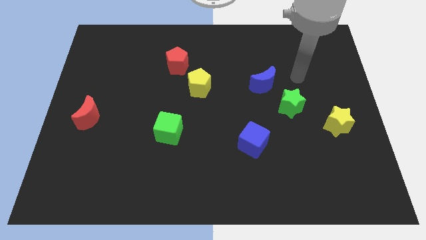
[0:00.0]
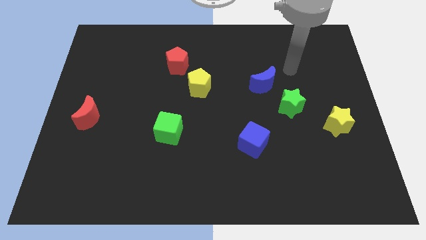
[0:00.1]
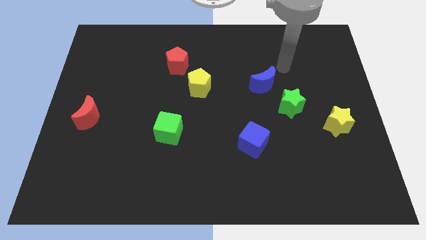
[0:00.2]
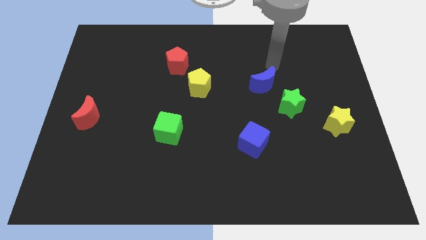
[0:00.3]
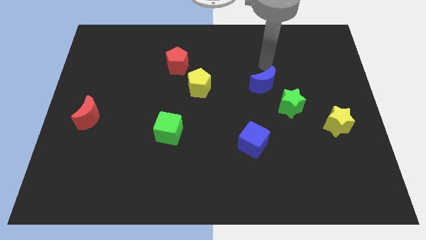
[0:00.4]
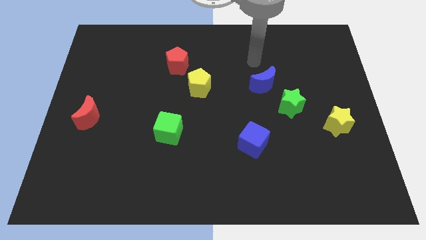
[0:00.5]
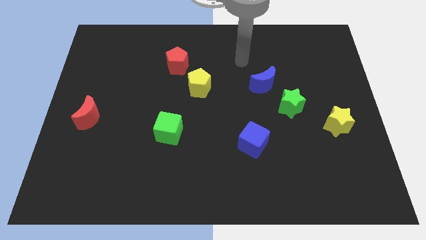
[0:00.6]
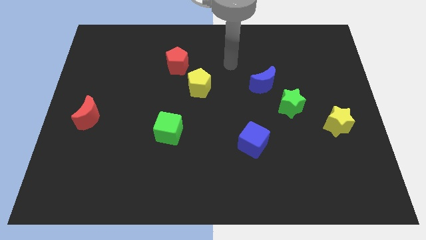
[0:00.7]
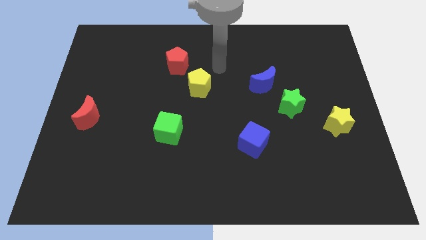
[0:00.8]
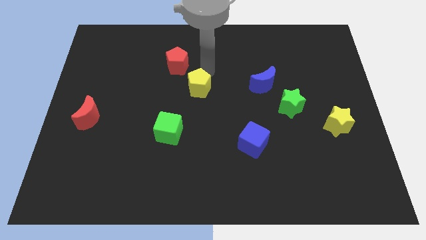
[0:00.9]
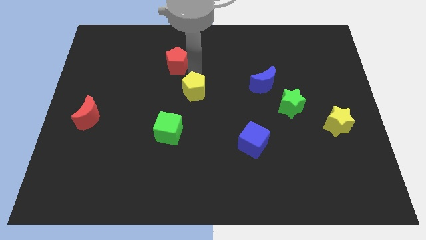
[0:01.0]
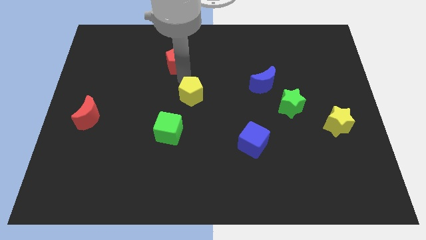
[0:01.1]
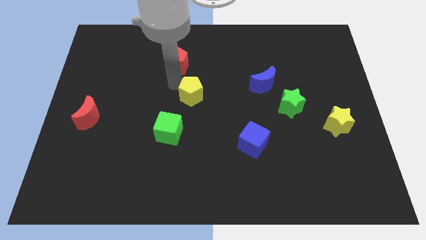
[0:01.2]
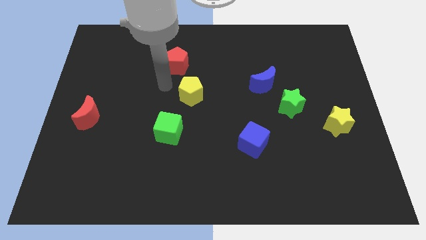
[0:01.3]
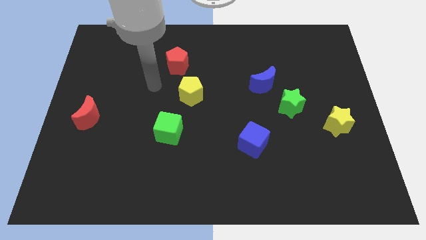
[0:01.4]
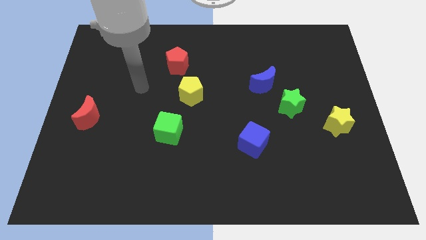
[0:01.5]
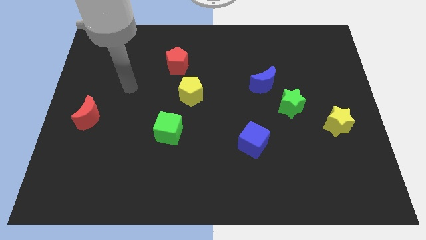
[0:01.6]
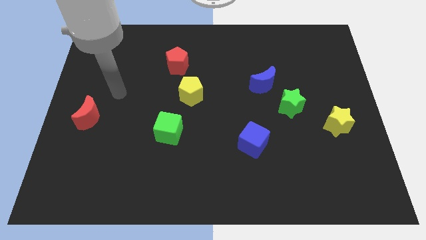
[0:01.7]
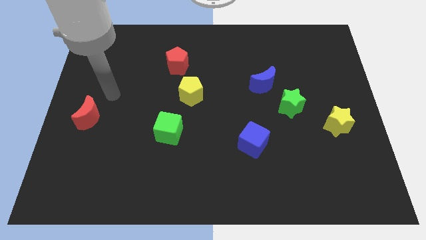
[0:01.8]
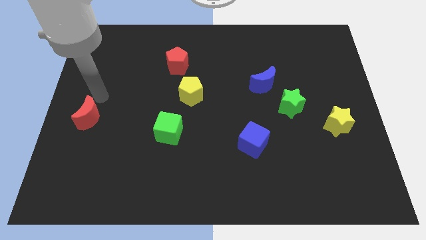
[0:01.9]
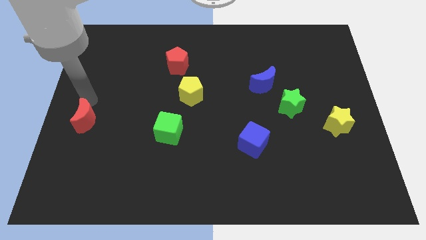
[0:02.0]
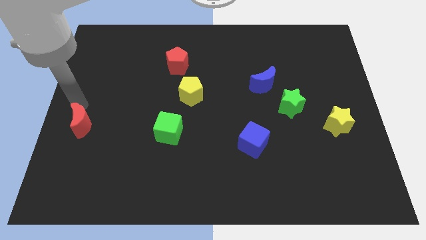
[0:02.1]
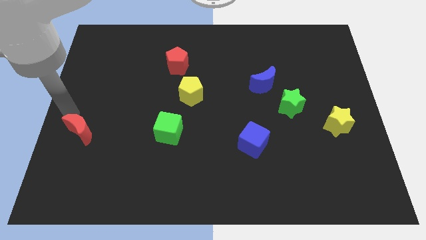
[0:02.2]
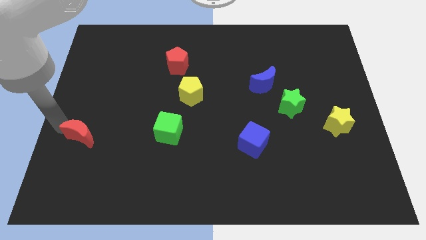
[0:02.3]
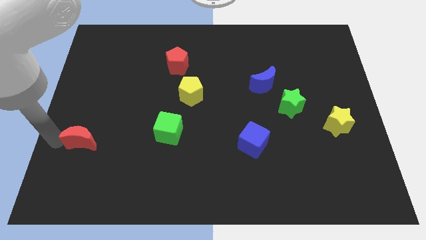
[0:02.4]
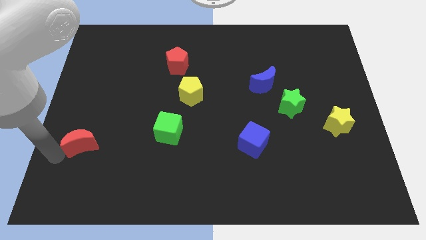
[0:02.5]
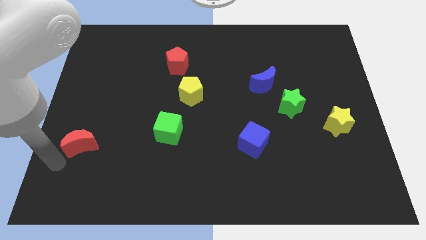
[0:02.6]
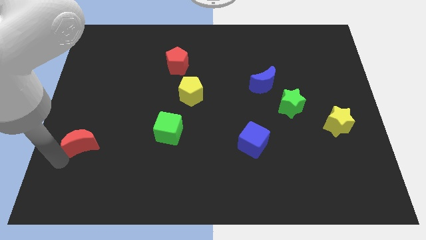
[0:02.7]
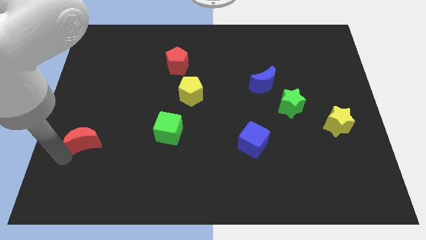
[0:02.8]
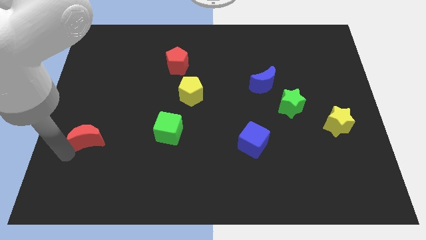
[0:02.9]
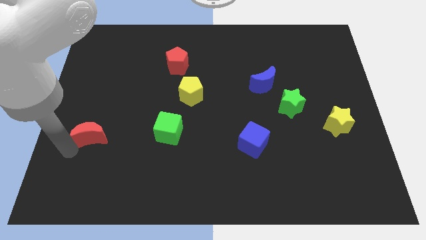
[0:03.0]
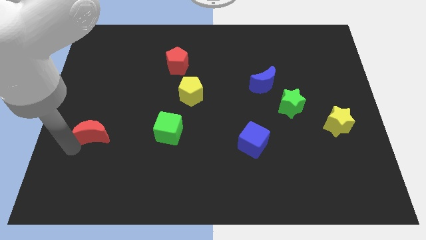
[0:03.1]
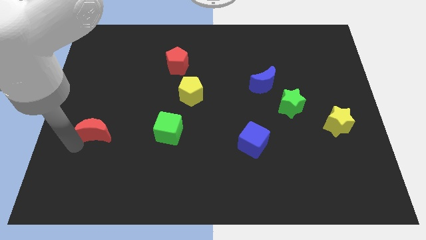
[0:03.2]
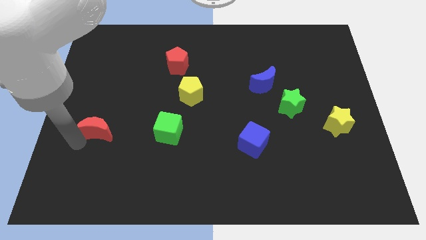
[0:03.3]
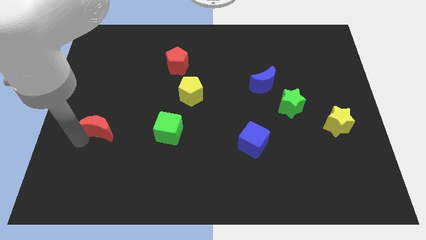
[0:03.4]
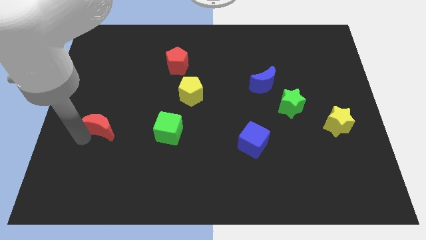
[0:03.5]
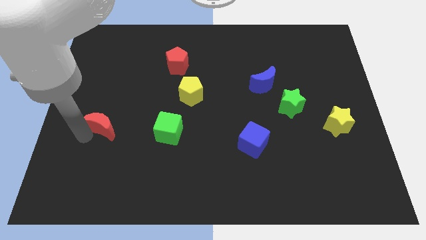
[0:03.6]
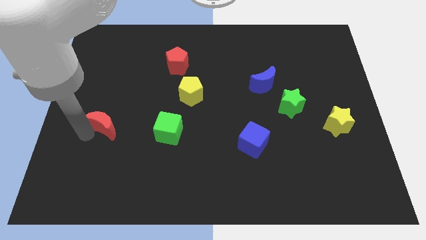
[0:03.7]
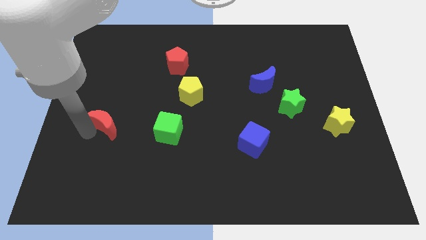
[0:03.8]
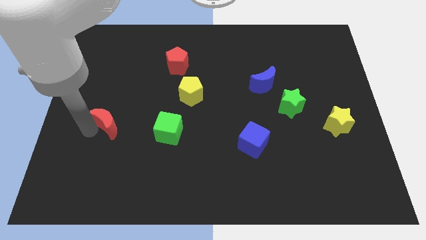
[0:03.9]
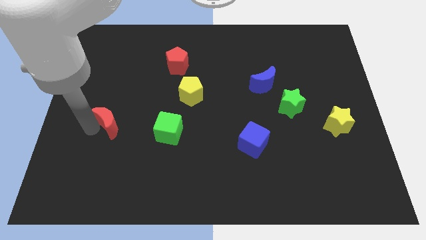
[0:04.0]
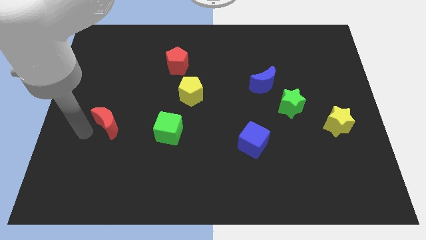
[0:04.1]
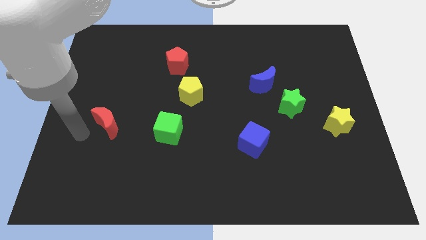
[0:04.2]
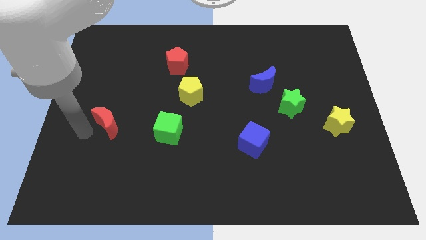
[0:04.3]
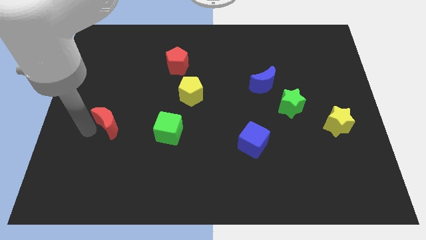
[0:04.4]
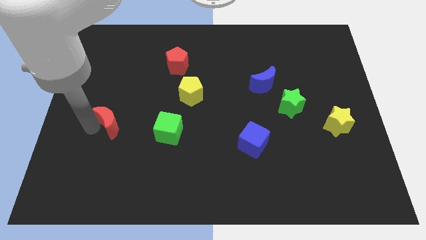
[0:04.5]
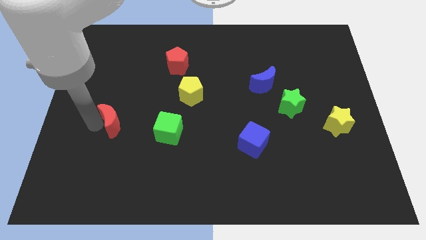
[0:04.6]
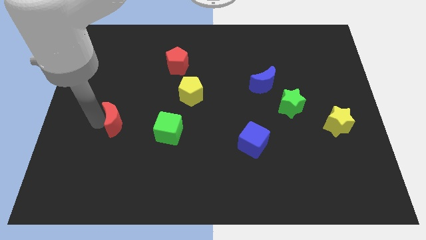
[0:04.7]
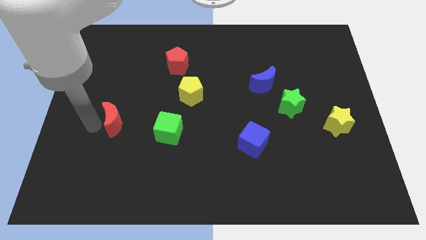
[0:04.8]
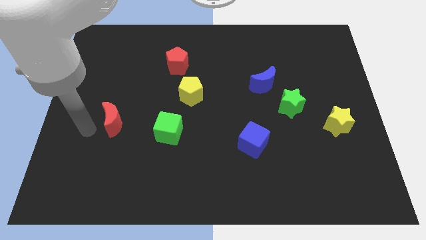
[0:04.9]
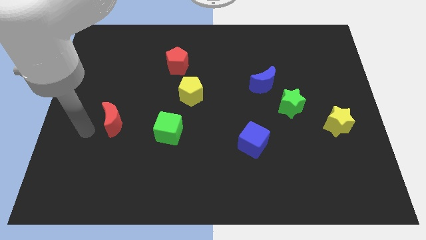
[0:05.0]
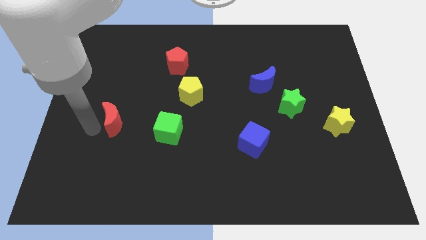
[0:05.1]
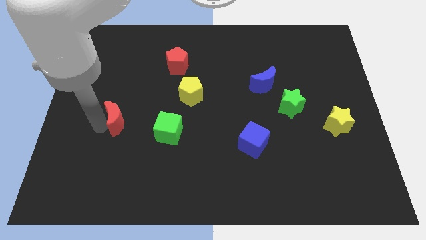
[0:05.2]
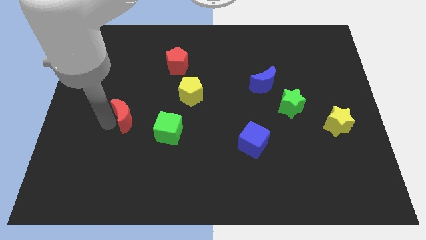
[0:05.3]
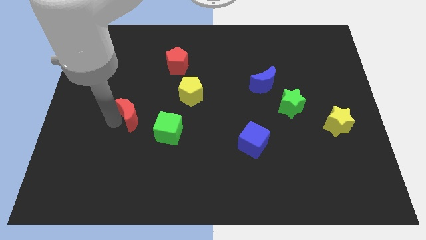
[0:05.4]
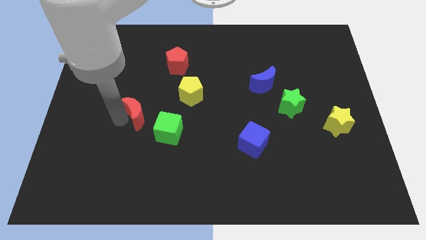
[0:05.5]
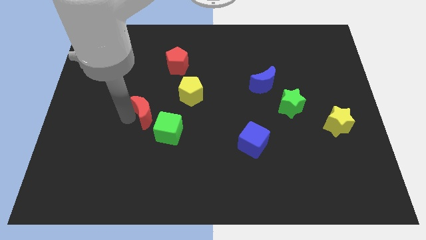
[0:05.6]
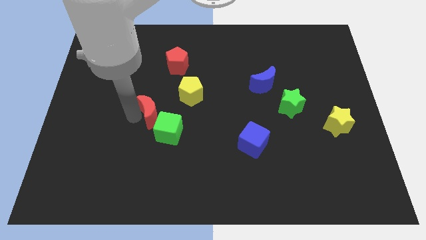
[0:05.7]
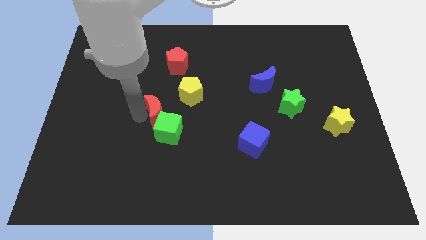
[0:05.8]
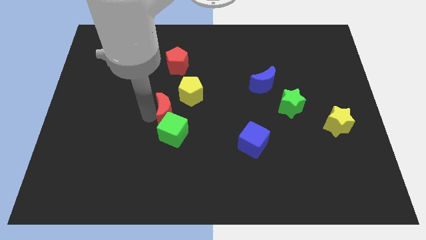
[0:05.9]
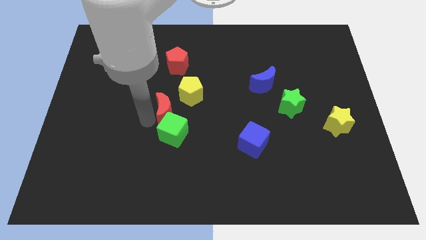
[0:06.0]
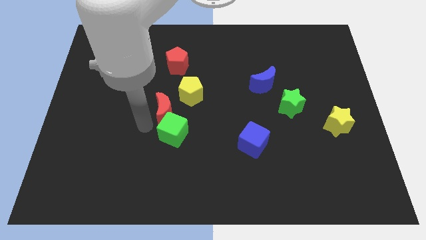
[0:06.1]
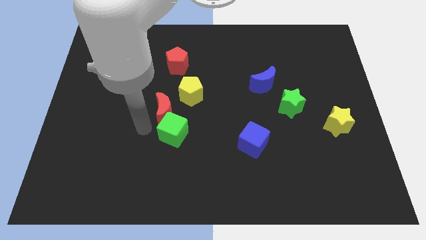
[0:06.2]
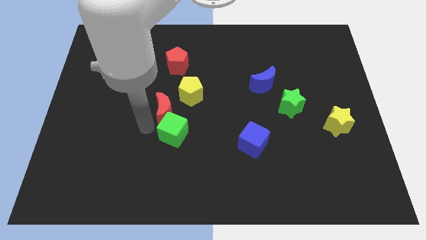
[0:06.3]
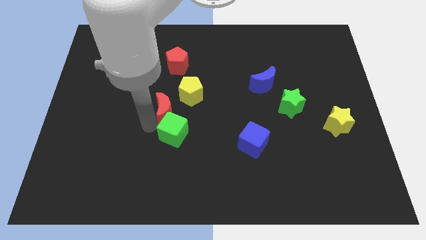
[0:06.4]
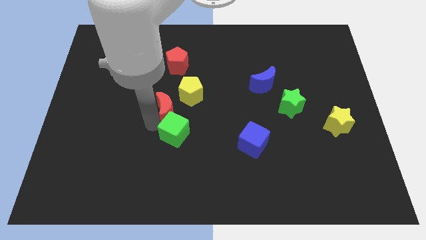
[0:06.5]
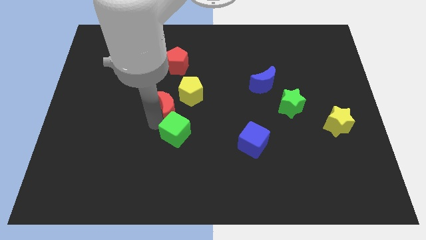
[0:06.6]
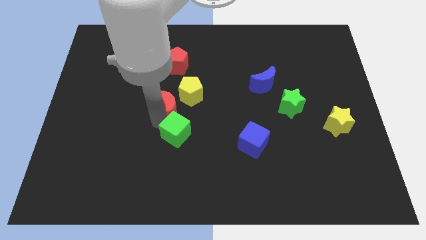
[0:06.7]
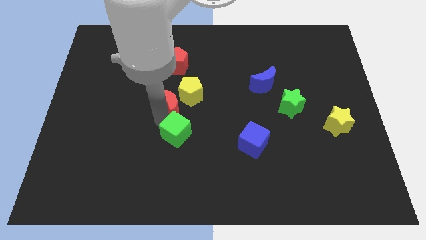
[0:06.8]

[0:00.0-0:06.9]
push the red moon towards the yellow pentagon
